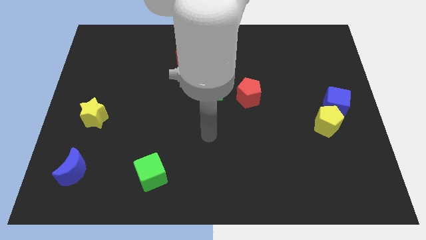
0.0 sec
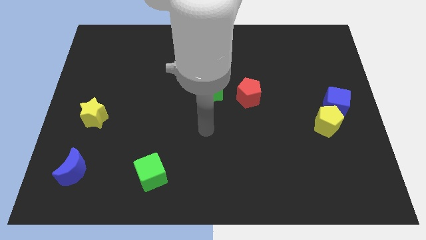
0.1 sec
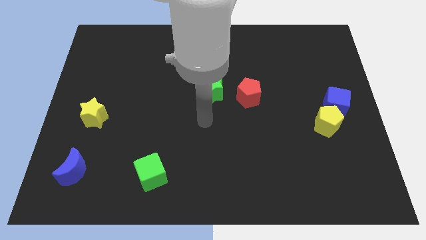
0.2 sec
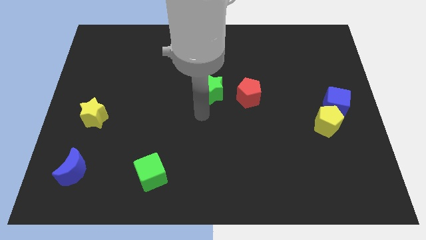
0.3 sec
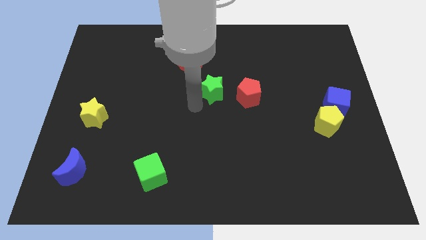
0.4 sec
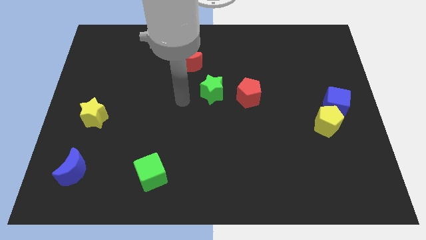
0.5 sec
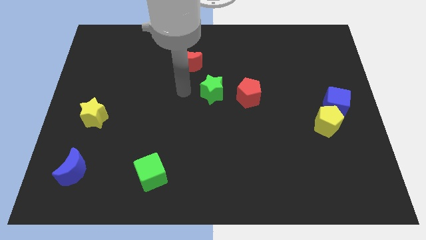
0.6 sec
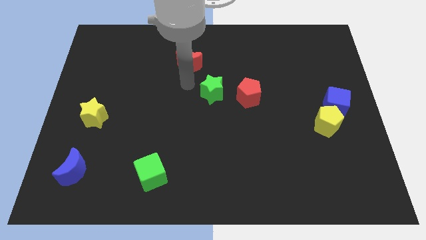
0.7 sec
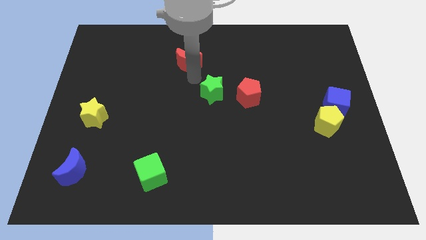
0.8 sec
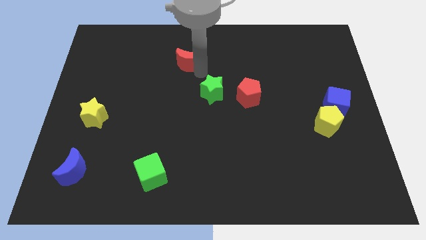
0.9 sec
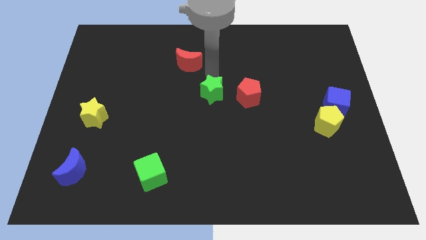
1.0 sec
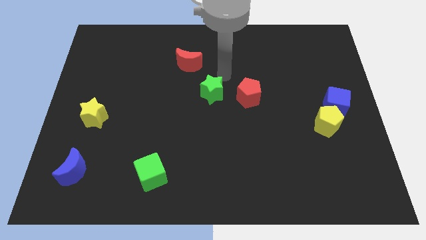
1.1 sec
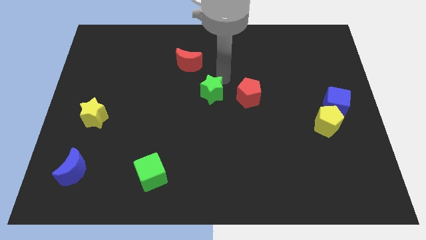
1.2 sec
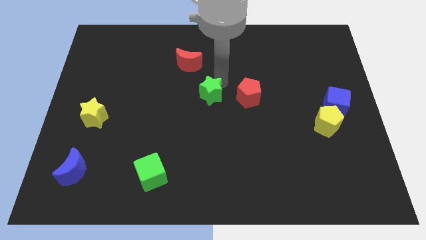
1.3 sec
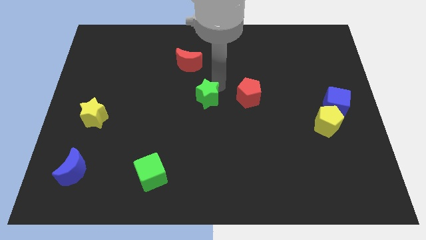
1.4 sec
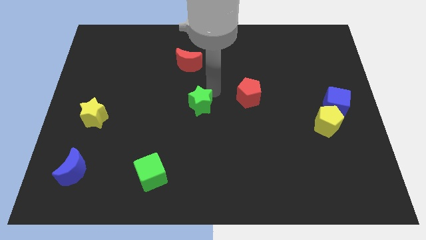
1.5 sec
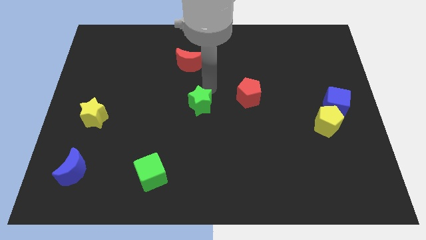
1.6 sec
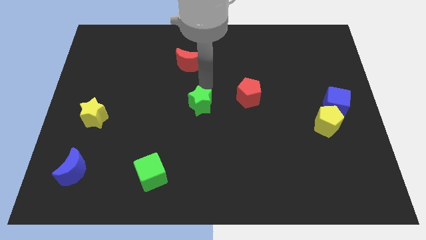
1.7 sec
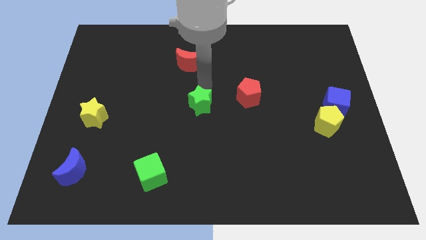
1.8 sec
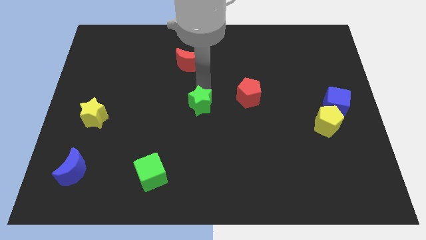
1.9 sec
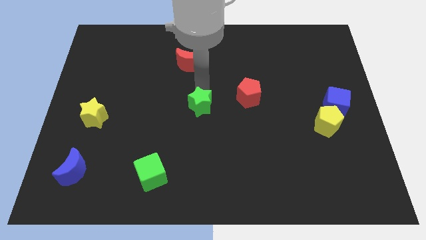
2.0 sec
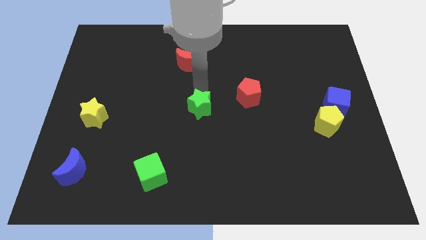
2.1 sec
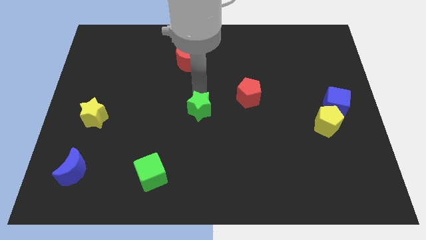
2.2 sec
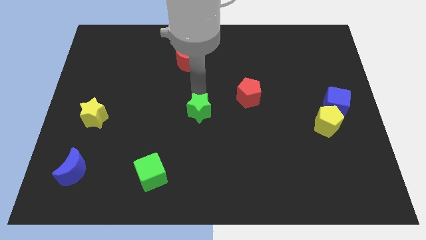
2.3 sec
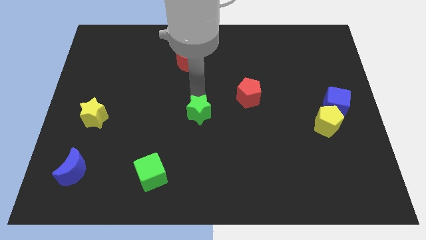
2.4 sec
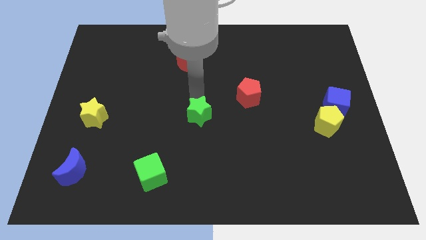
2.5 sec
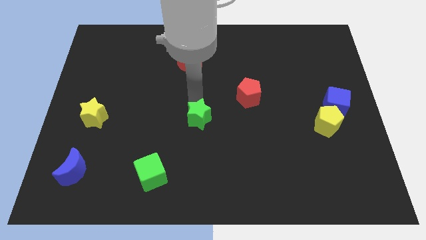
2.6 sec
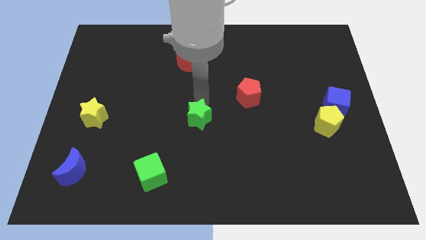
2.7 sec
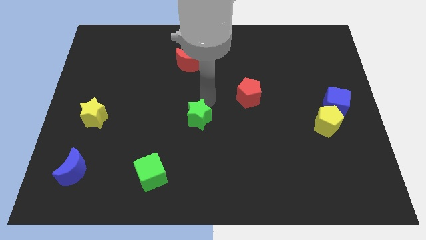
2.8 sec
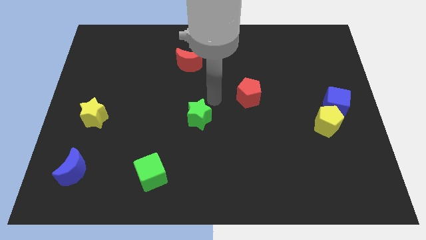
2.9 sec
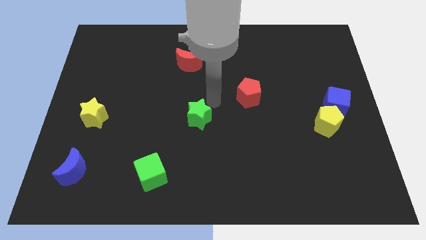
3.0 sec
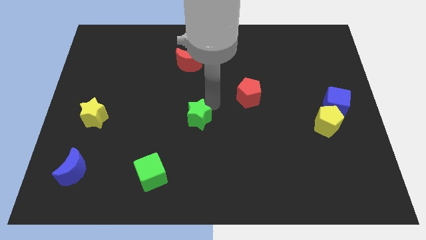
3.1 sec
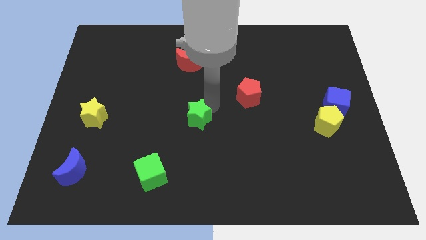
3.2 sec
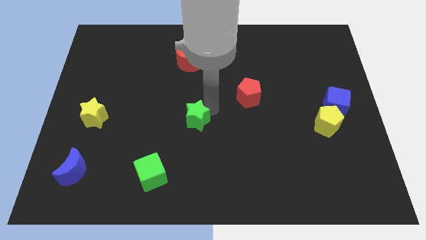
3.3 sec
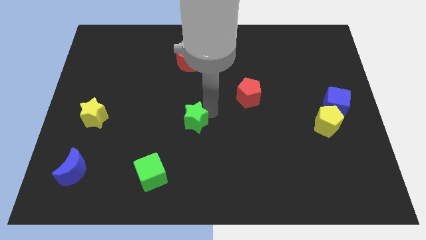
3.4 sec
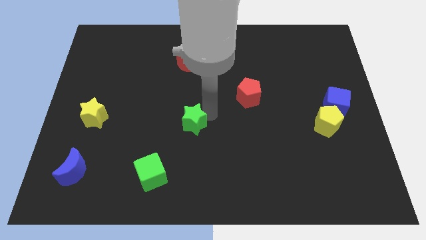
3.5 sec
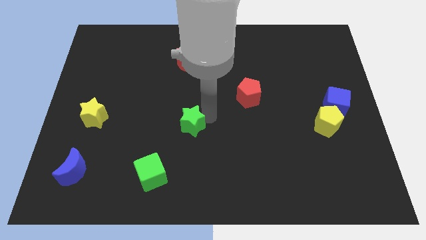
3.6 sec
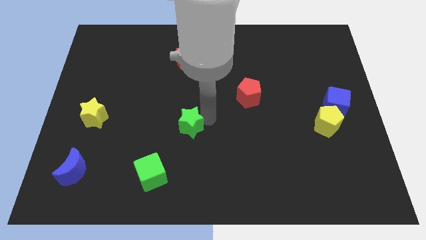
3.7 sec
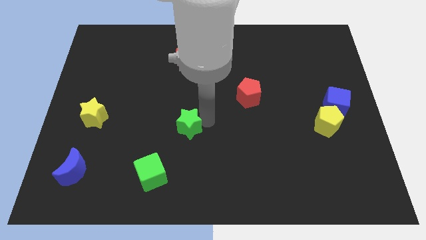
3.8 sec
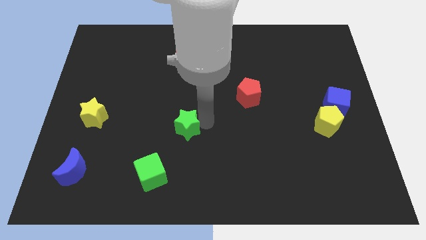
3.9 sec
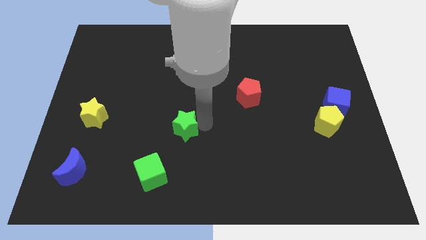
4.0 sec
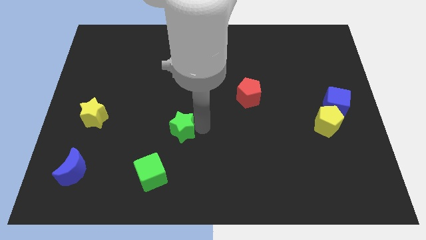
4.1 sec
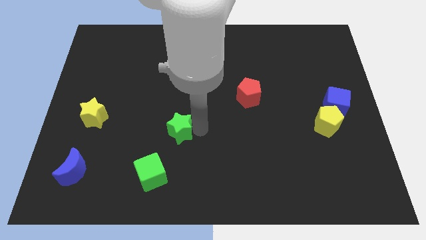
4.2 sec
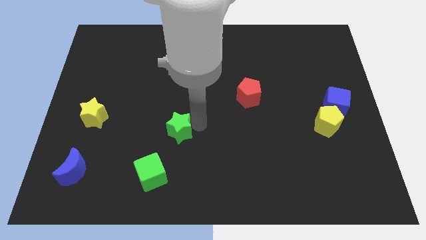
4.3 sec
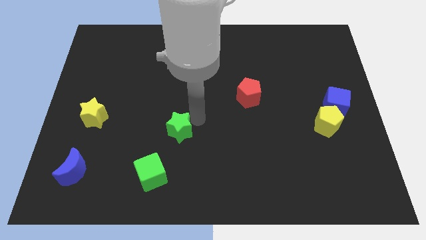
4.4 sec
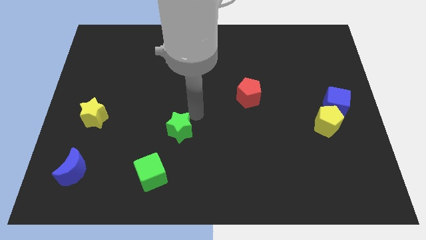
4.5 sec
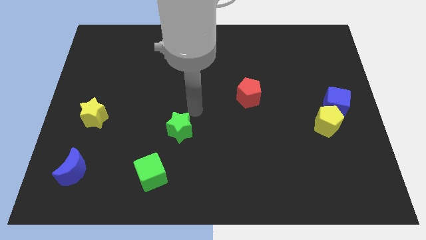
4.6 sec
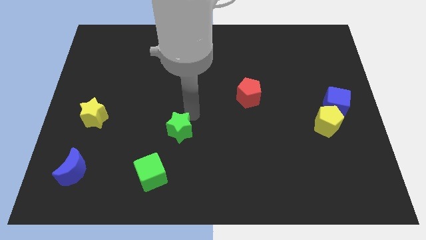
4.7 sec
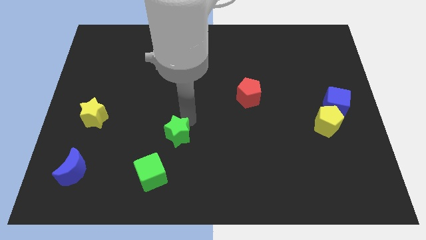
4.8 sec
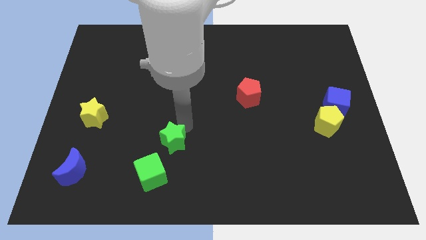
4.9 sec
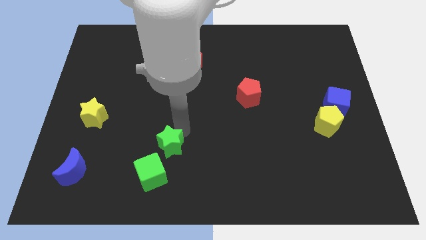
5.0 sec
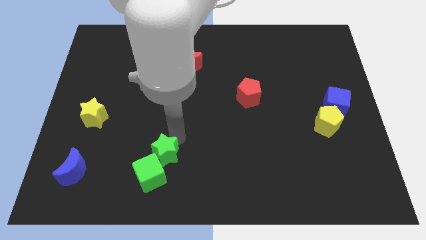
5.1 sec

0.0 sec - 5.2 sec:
put the green star close to the green cube

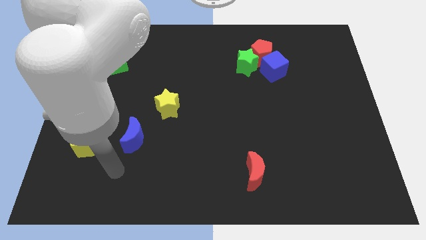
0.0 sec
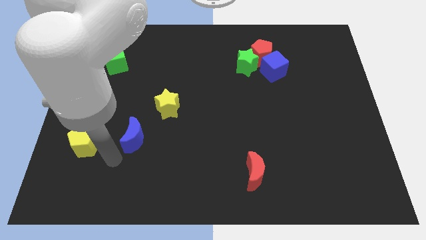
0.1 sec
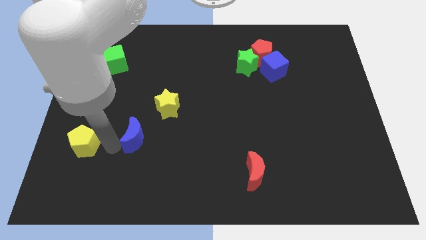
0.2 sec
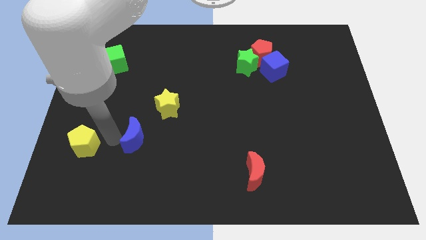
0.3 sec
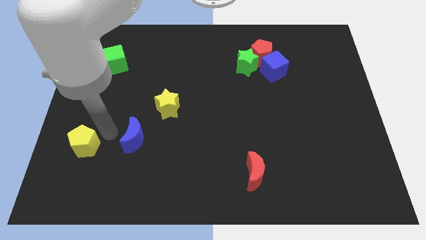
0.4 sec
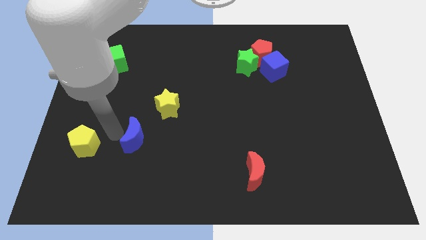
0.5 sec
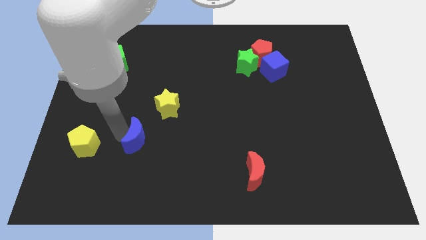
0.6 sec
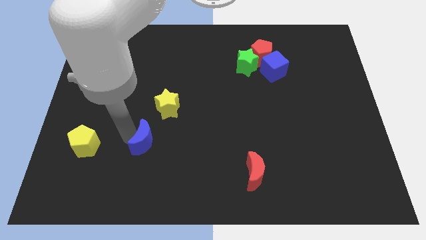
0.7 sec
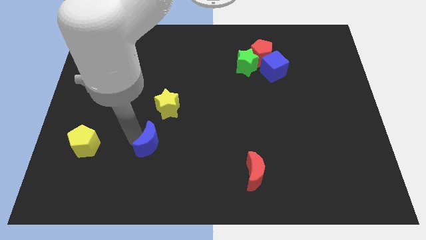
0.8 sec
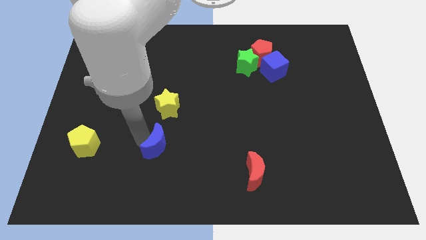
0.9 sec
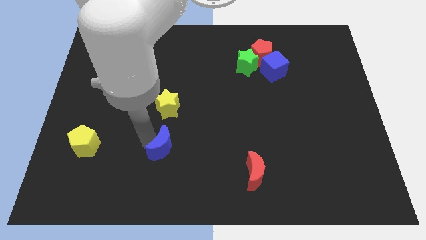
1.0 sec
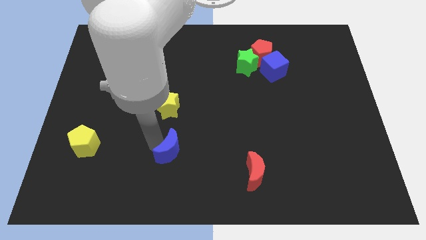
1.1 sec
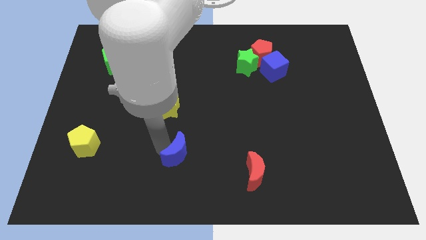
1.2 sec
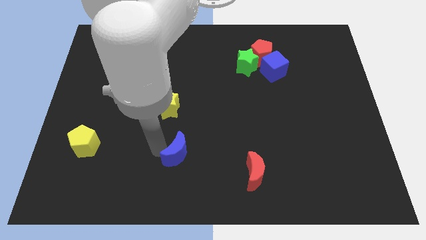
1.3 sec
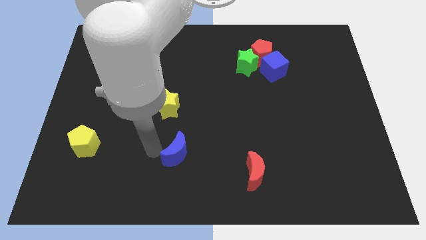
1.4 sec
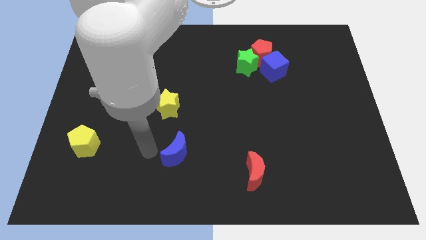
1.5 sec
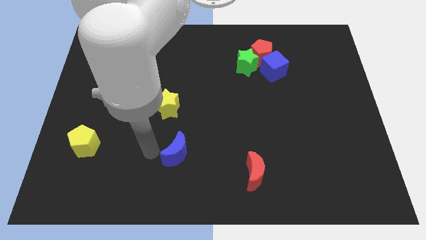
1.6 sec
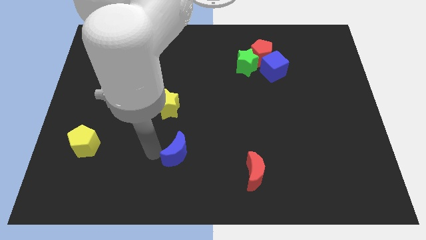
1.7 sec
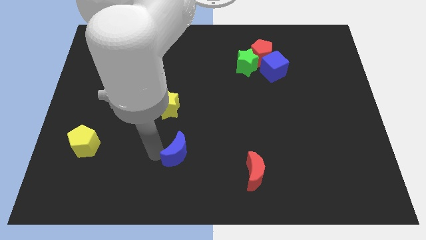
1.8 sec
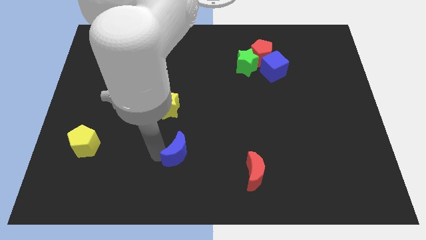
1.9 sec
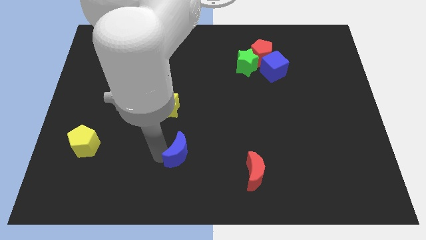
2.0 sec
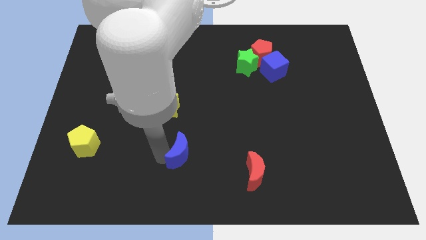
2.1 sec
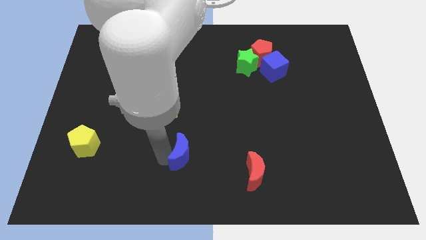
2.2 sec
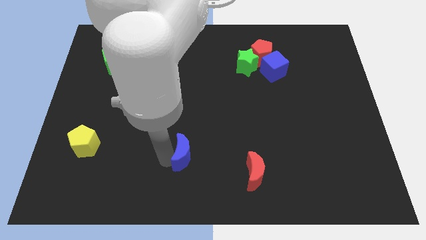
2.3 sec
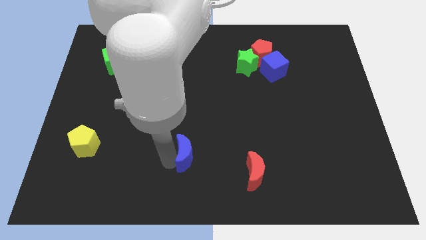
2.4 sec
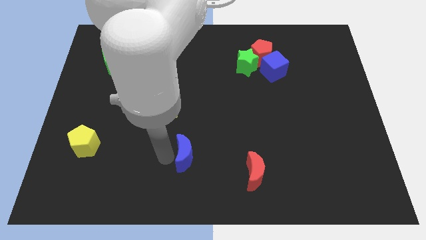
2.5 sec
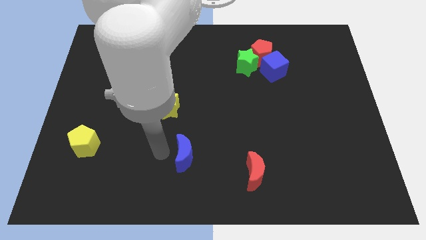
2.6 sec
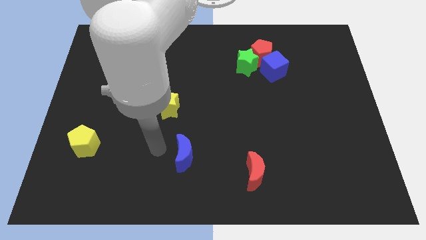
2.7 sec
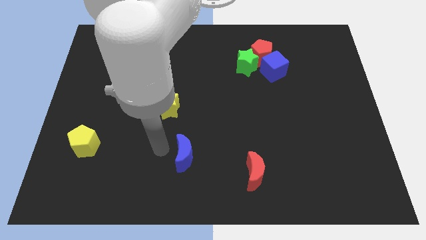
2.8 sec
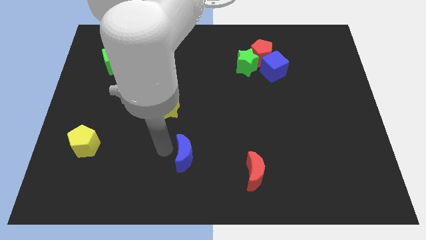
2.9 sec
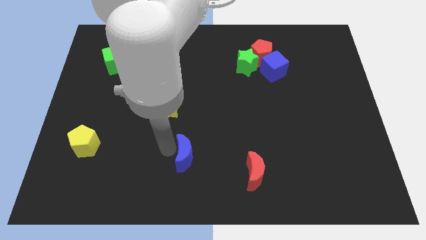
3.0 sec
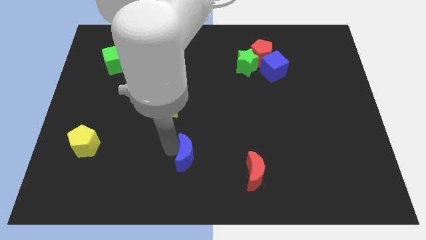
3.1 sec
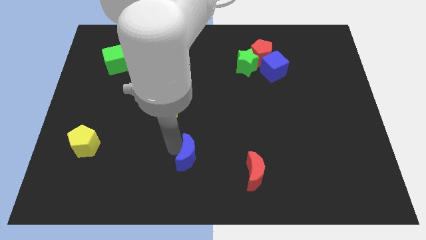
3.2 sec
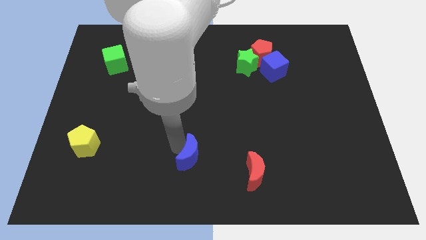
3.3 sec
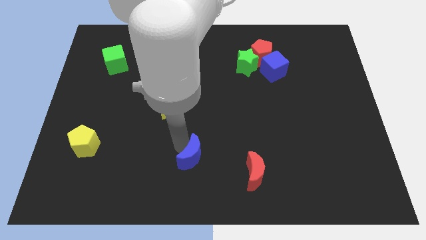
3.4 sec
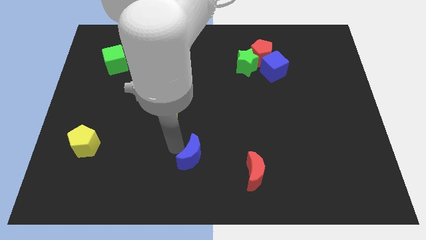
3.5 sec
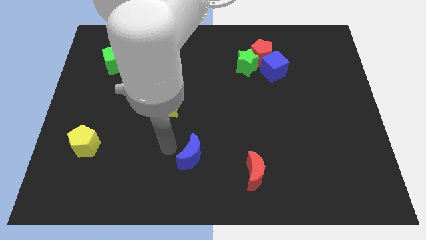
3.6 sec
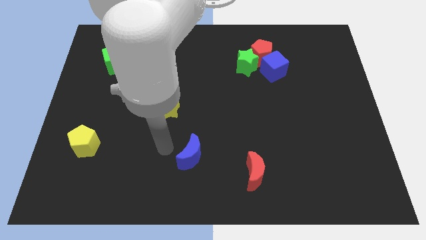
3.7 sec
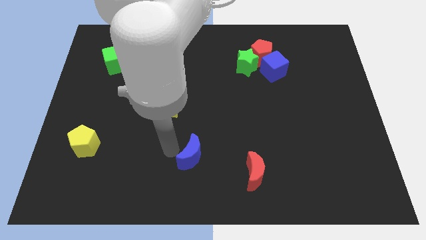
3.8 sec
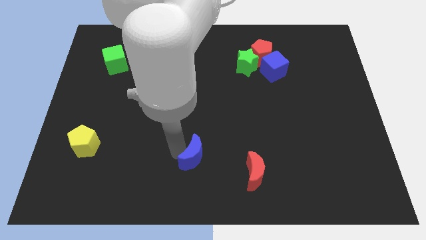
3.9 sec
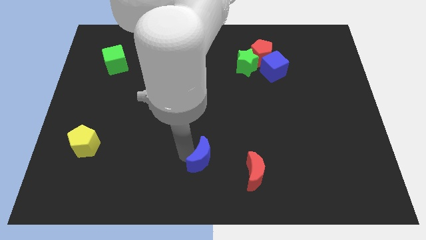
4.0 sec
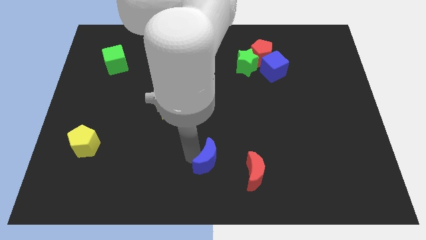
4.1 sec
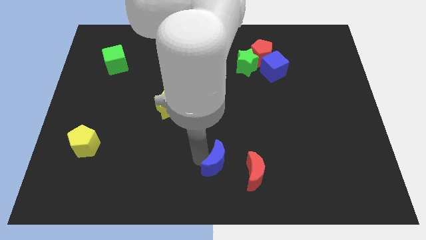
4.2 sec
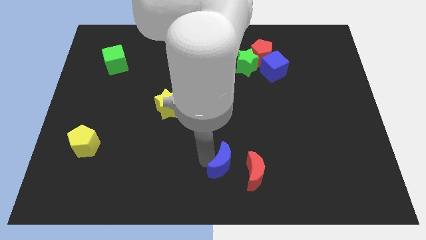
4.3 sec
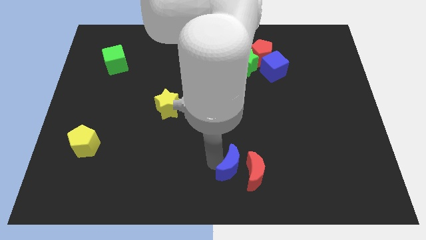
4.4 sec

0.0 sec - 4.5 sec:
push the blue moon to the red moon
